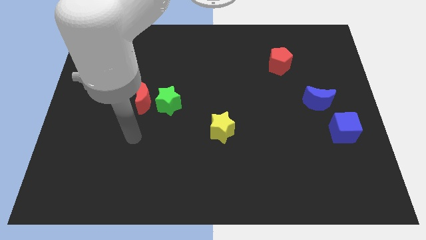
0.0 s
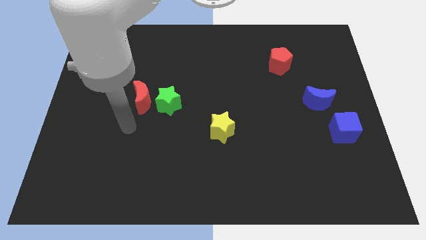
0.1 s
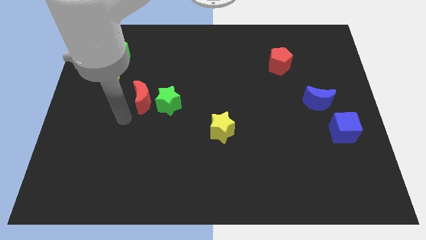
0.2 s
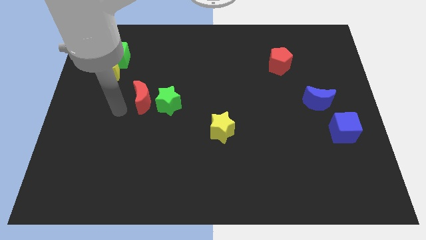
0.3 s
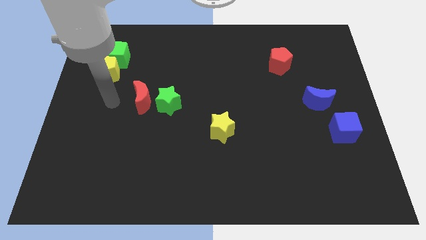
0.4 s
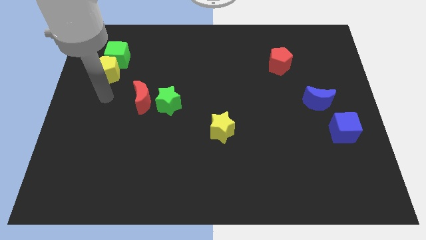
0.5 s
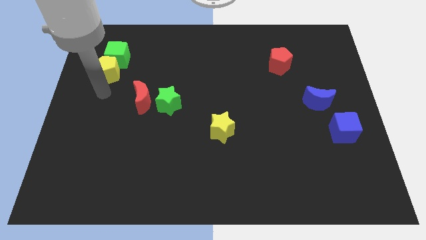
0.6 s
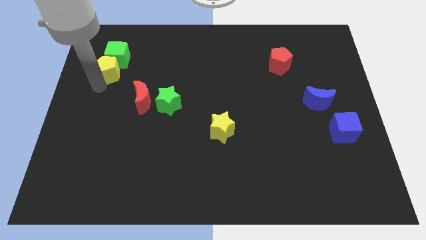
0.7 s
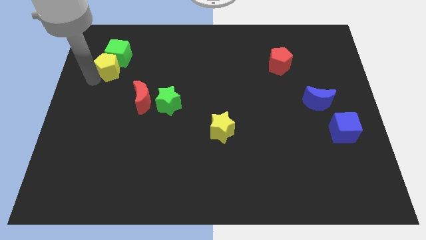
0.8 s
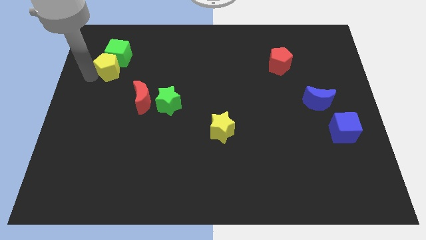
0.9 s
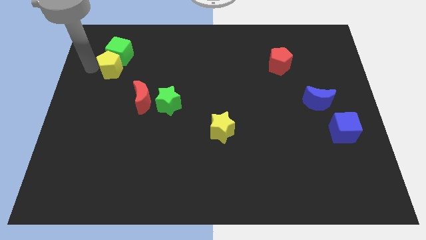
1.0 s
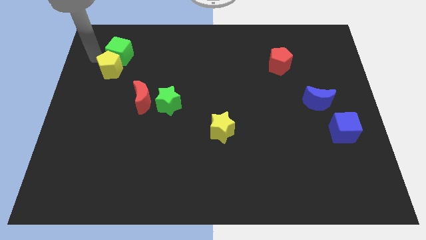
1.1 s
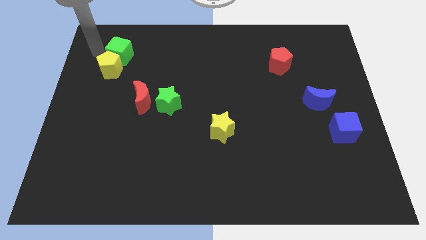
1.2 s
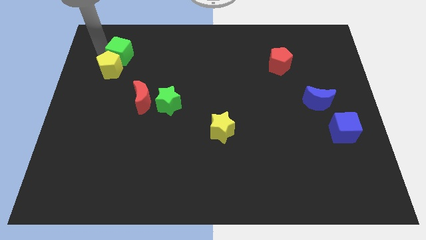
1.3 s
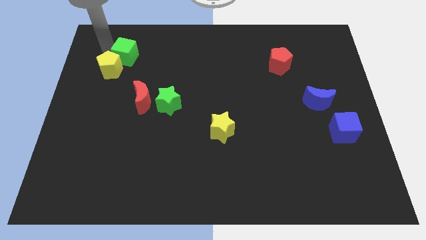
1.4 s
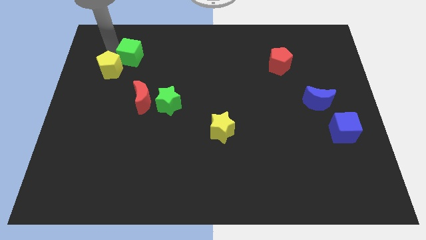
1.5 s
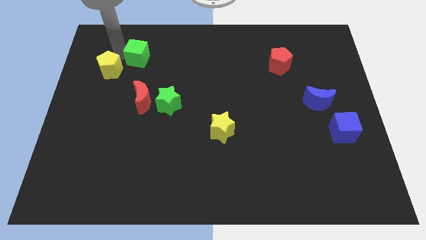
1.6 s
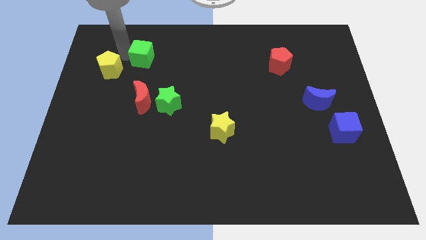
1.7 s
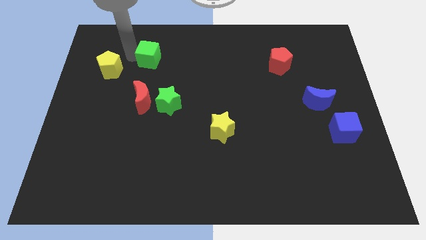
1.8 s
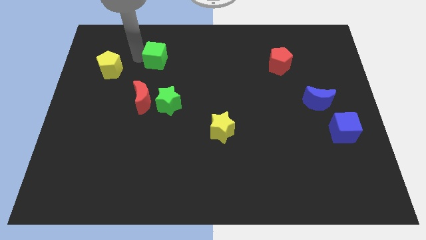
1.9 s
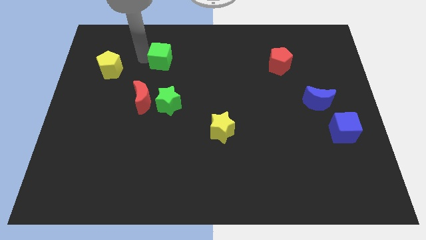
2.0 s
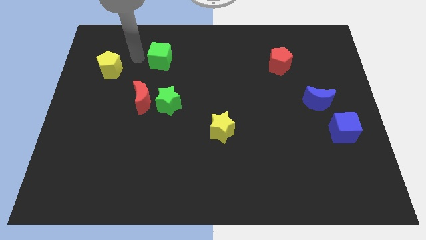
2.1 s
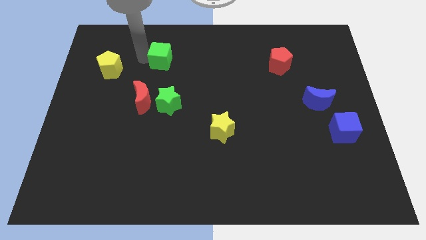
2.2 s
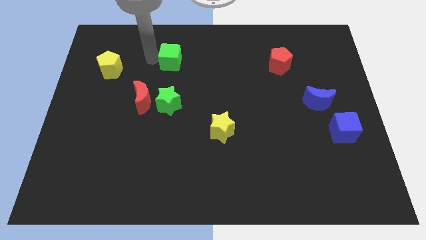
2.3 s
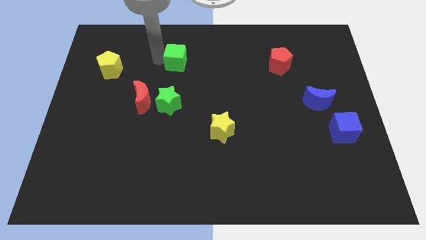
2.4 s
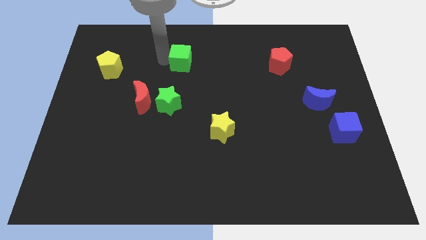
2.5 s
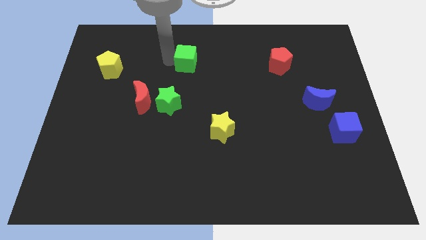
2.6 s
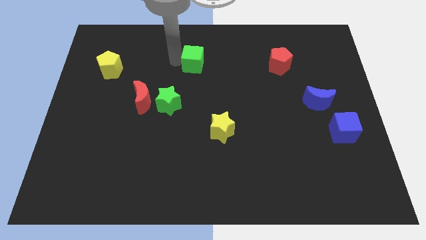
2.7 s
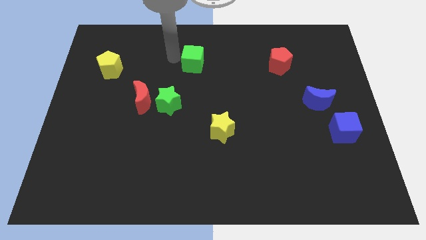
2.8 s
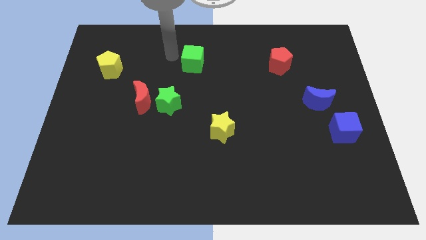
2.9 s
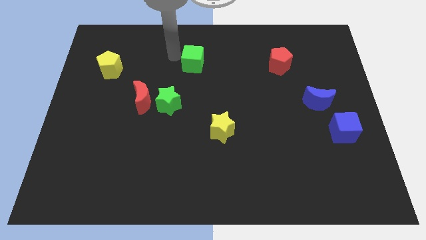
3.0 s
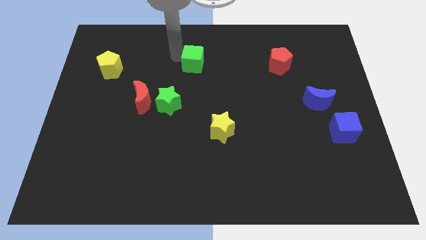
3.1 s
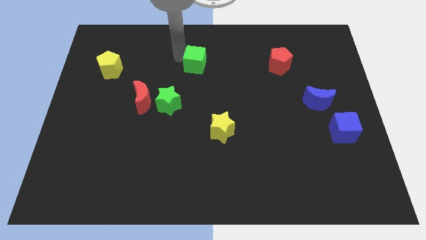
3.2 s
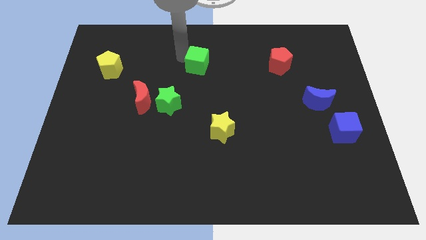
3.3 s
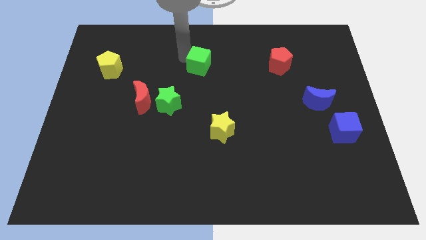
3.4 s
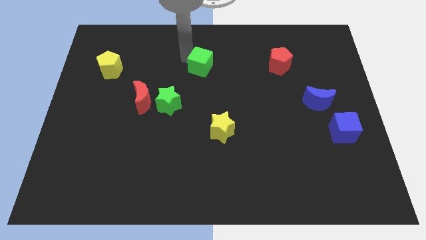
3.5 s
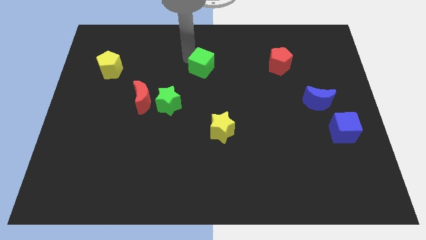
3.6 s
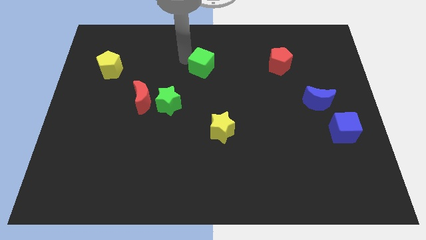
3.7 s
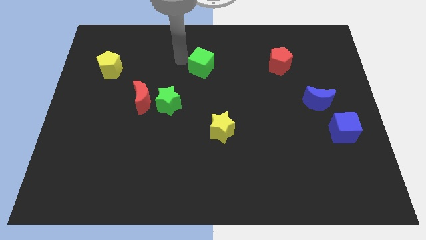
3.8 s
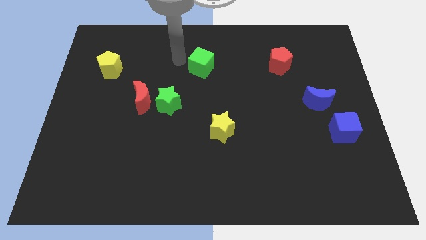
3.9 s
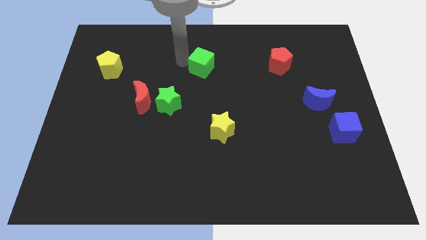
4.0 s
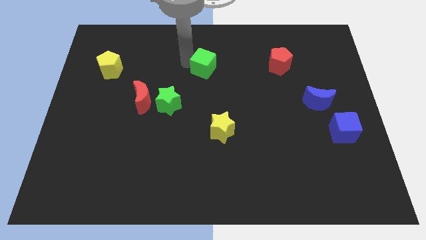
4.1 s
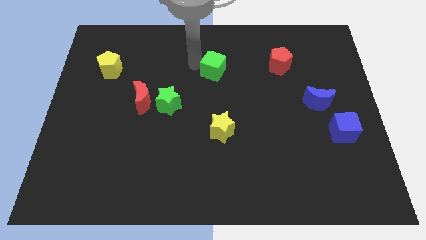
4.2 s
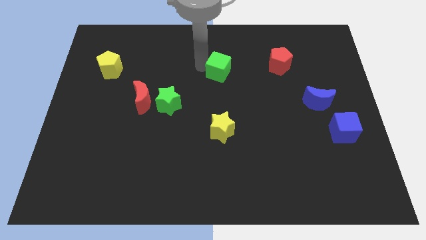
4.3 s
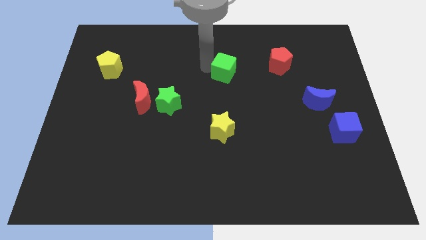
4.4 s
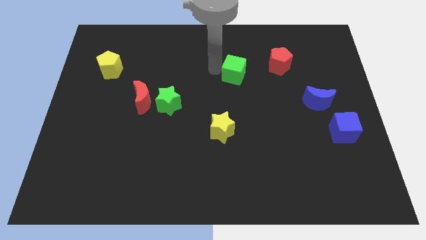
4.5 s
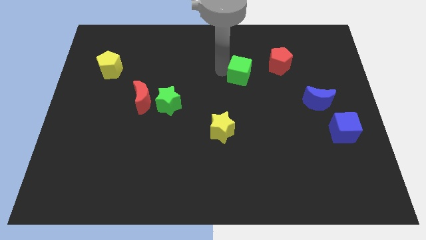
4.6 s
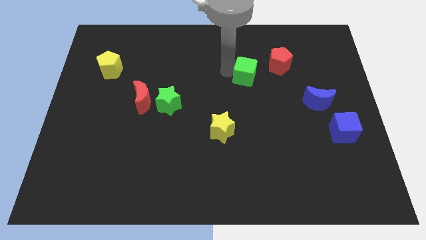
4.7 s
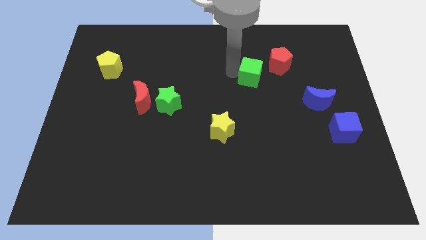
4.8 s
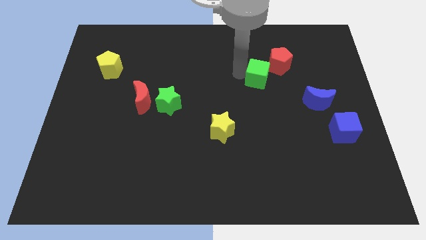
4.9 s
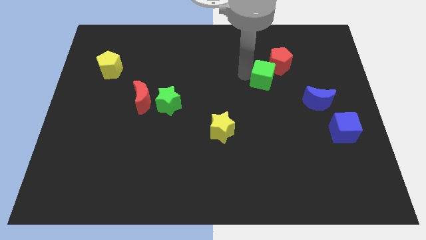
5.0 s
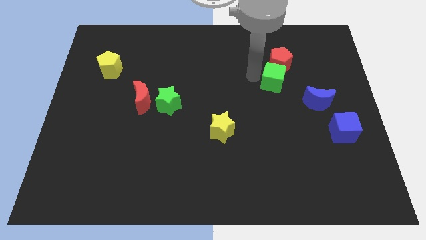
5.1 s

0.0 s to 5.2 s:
move the green cube to the top left side of the blue moon

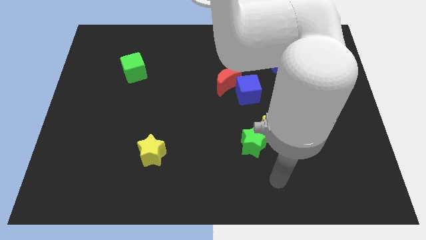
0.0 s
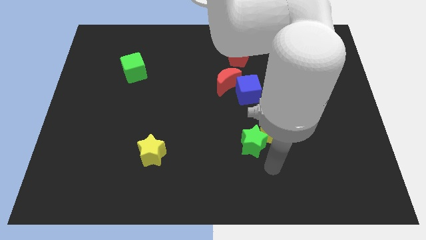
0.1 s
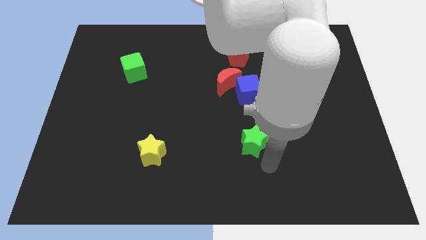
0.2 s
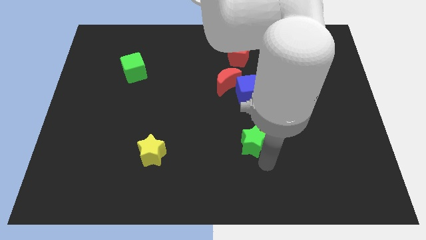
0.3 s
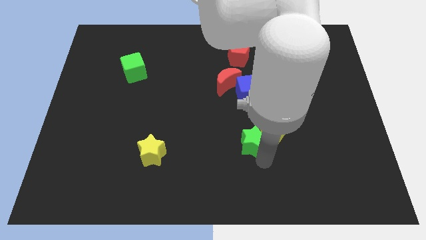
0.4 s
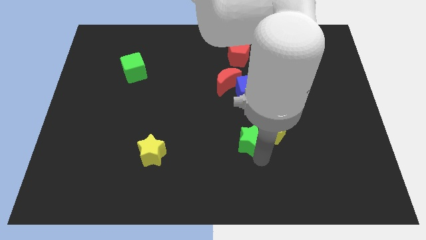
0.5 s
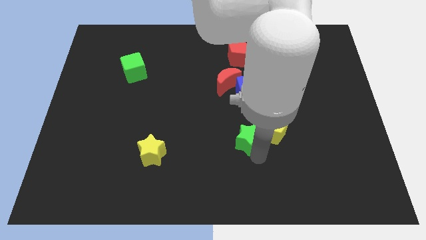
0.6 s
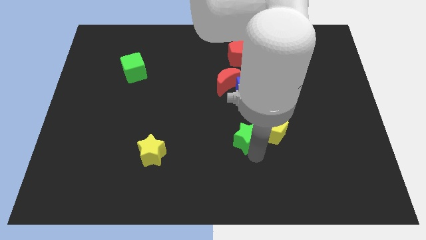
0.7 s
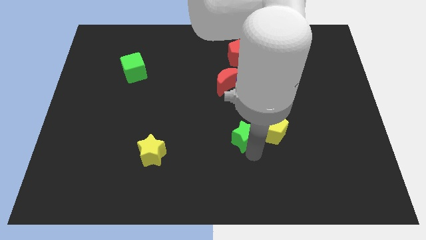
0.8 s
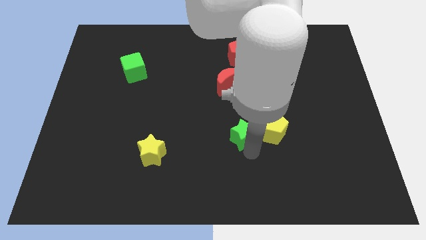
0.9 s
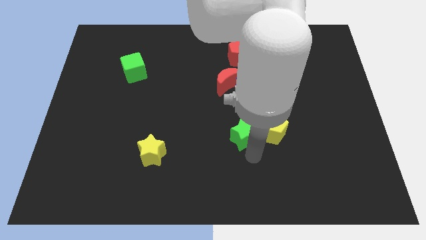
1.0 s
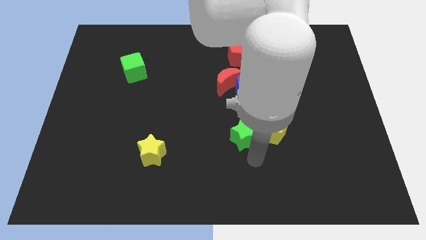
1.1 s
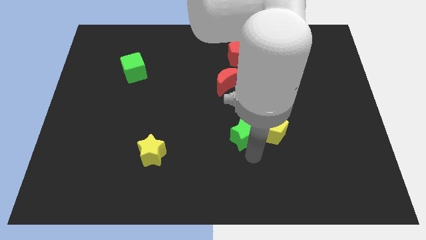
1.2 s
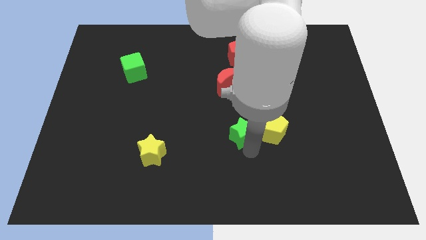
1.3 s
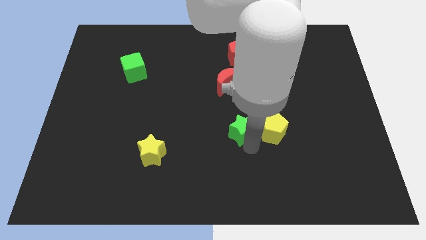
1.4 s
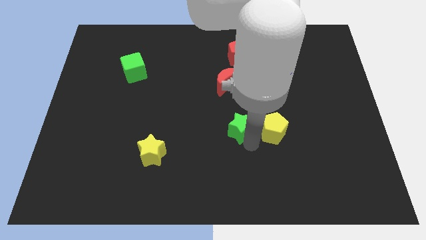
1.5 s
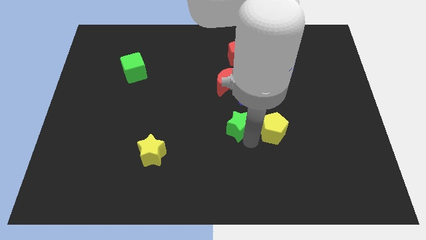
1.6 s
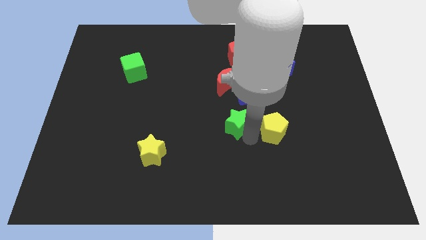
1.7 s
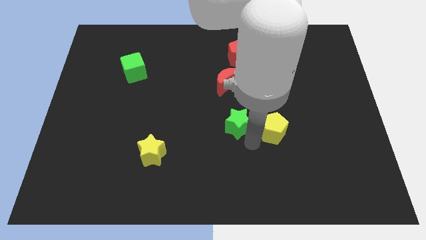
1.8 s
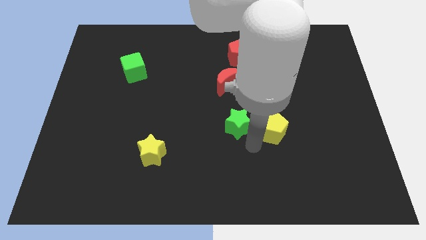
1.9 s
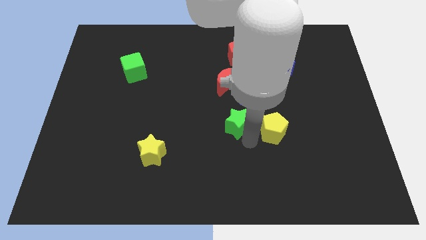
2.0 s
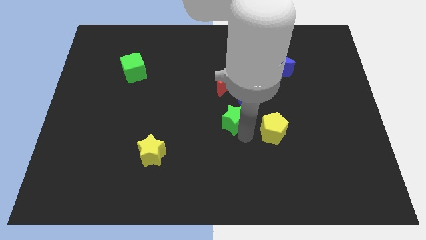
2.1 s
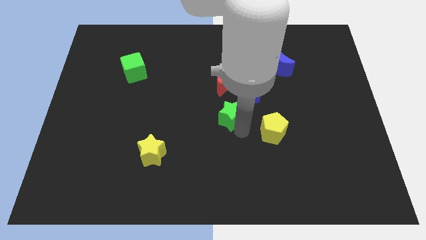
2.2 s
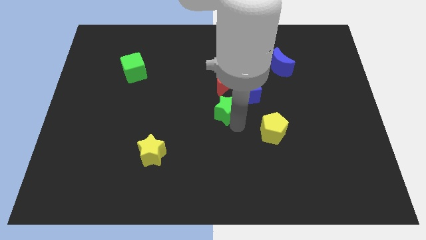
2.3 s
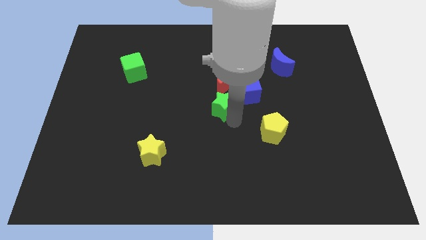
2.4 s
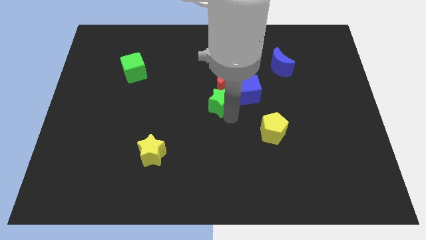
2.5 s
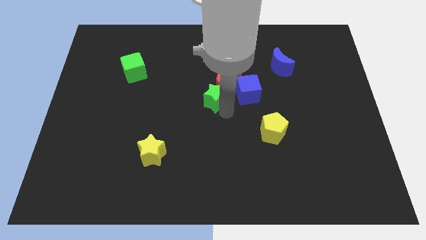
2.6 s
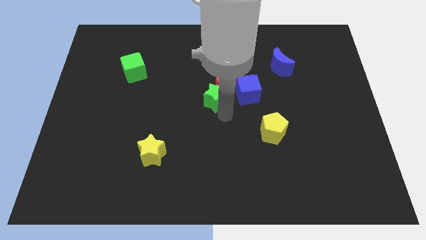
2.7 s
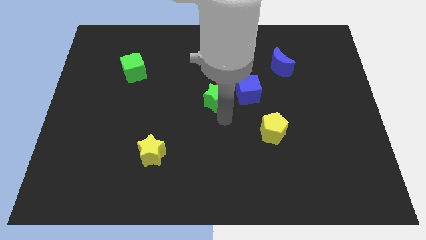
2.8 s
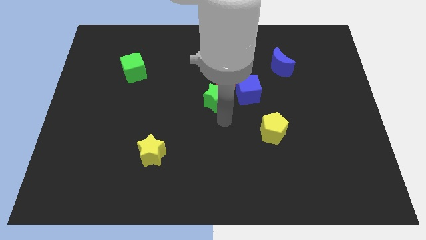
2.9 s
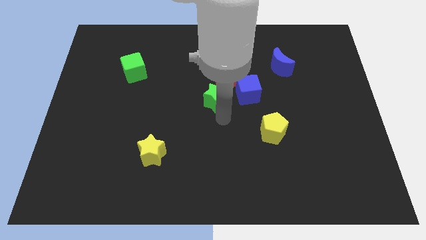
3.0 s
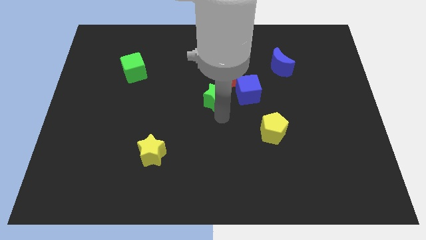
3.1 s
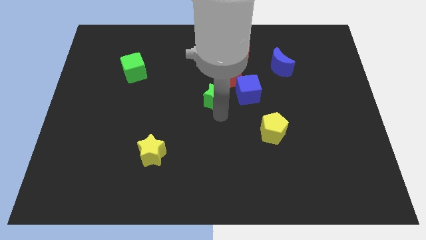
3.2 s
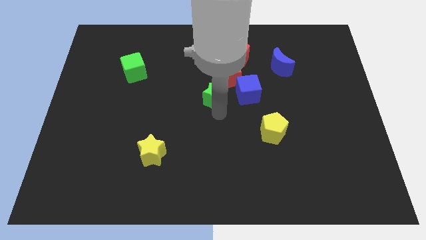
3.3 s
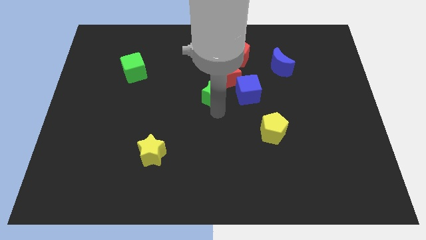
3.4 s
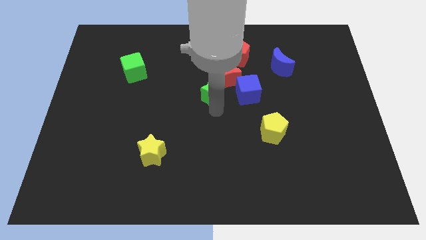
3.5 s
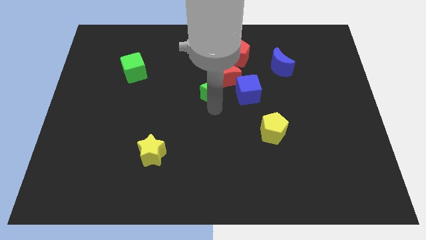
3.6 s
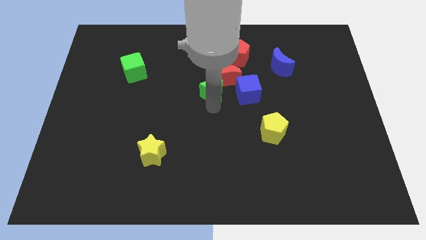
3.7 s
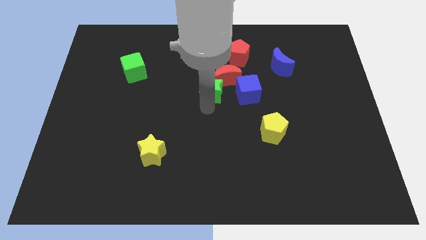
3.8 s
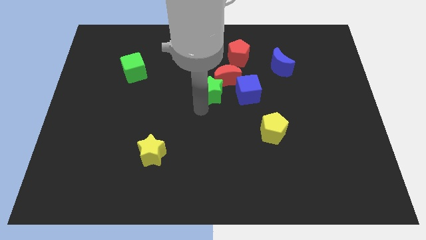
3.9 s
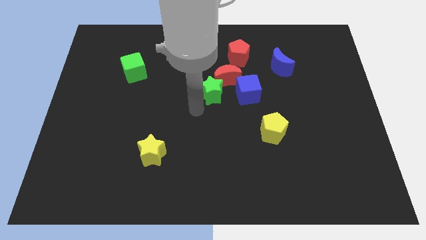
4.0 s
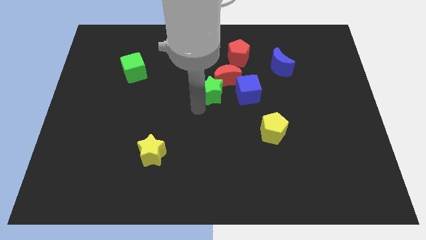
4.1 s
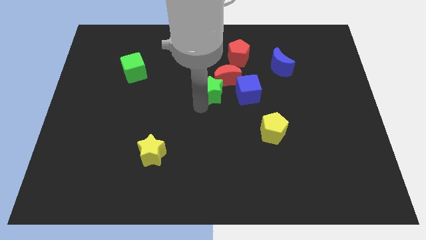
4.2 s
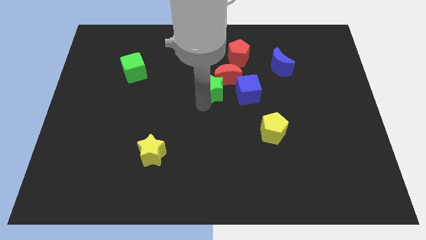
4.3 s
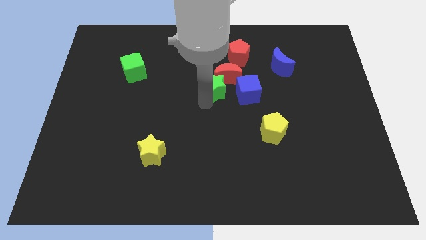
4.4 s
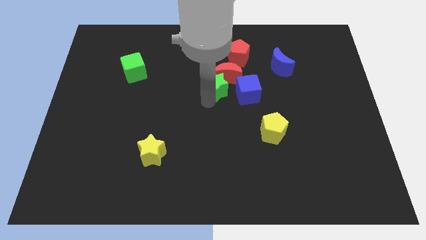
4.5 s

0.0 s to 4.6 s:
move the green star diagonally up and to the left of the blue cube
